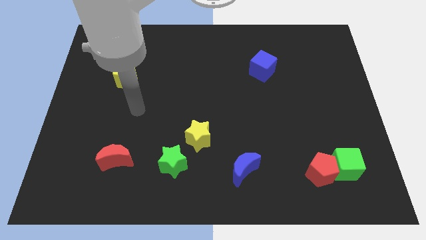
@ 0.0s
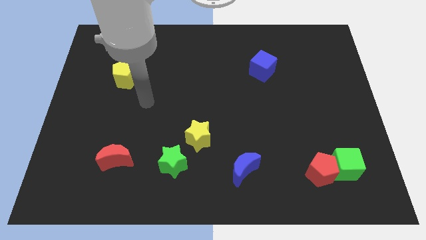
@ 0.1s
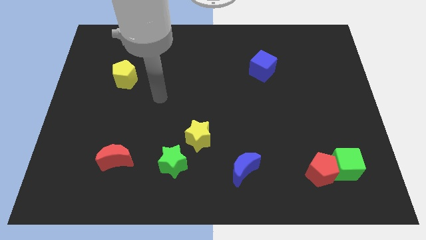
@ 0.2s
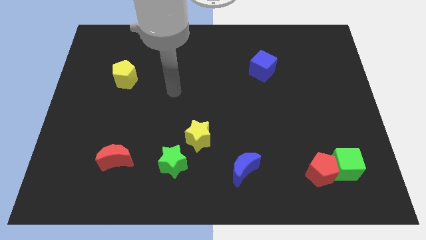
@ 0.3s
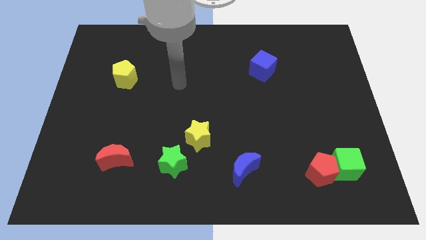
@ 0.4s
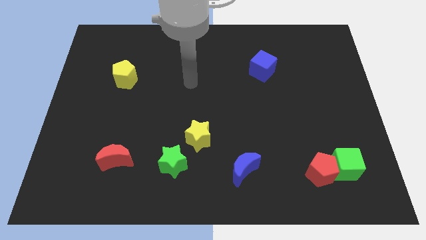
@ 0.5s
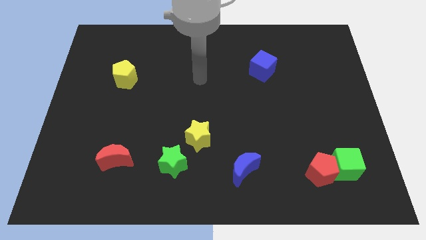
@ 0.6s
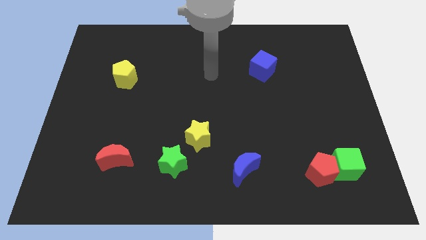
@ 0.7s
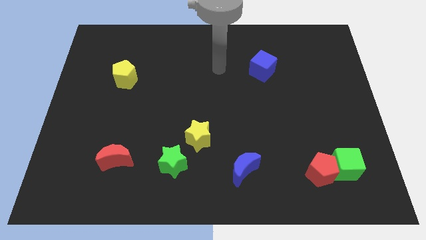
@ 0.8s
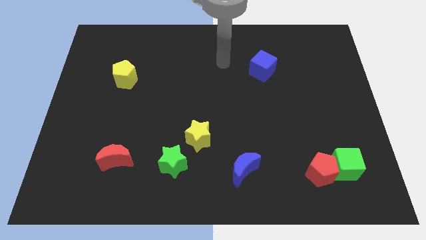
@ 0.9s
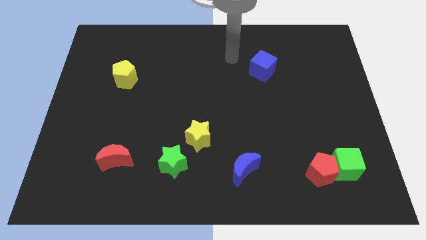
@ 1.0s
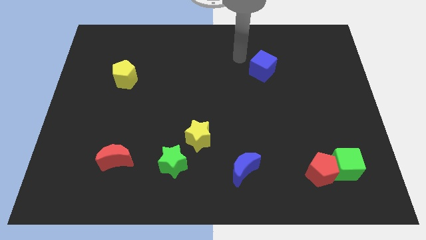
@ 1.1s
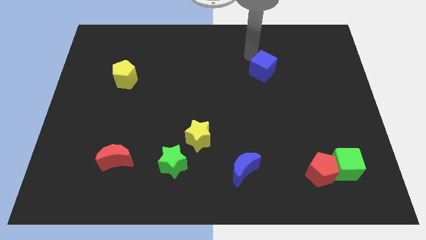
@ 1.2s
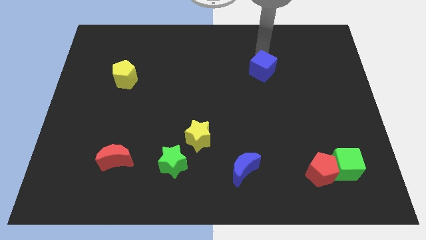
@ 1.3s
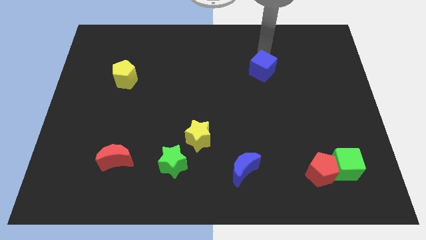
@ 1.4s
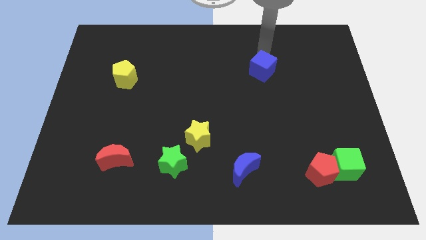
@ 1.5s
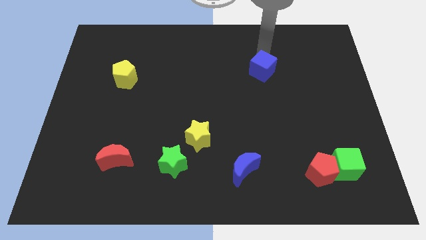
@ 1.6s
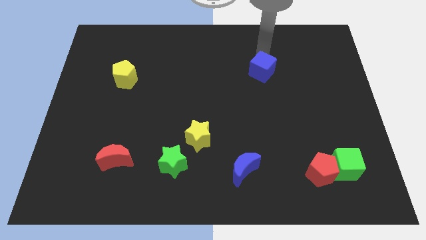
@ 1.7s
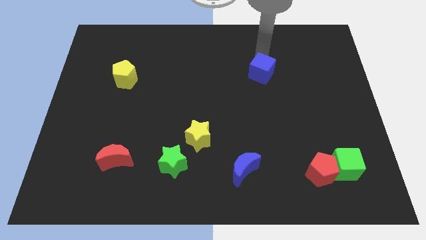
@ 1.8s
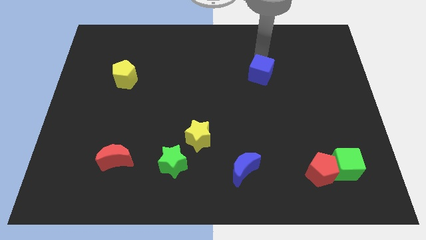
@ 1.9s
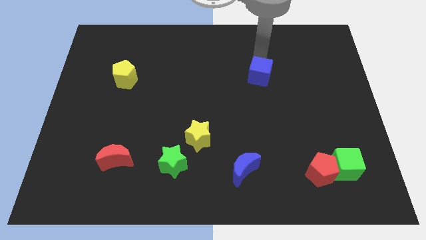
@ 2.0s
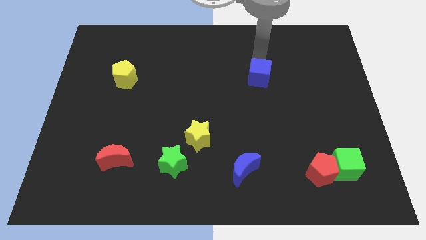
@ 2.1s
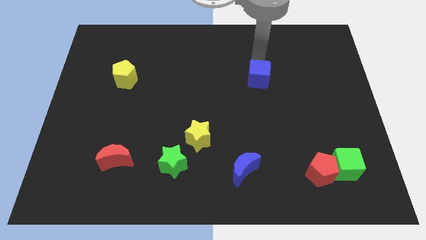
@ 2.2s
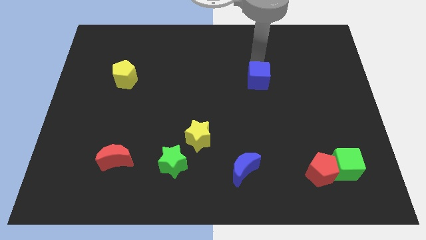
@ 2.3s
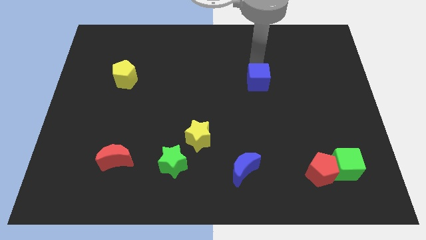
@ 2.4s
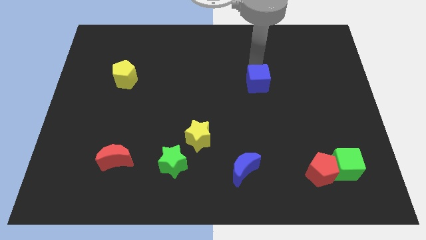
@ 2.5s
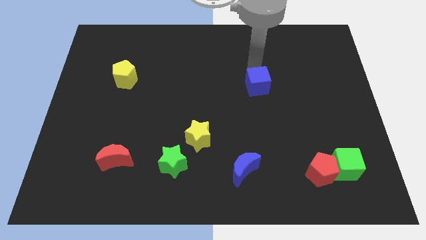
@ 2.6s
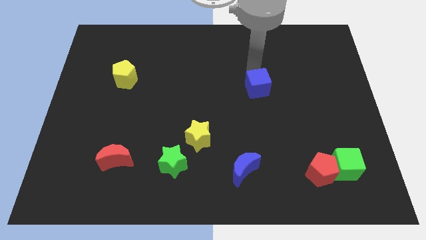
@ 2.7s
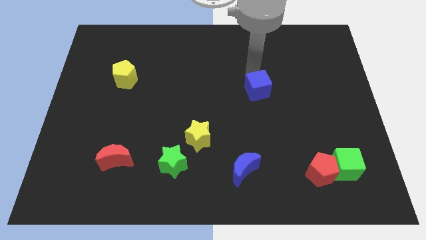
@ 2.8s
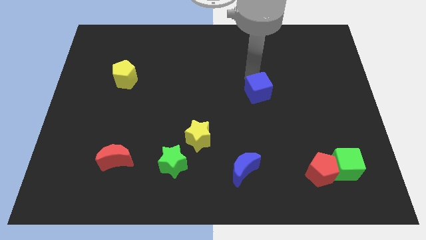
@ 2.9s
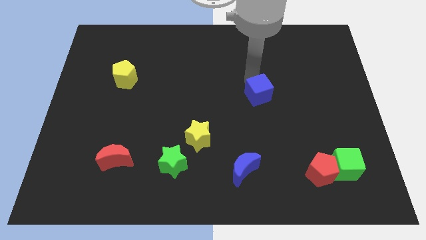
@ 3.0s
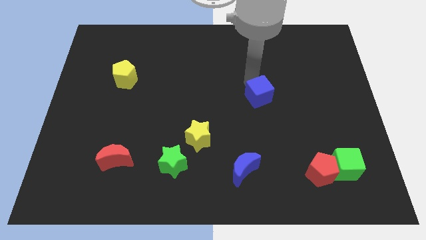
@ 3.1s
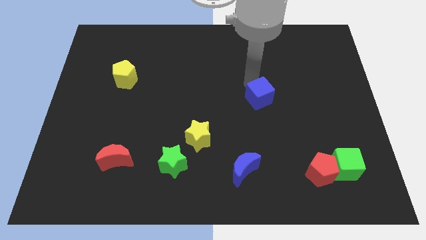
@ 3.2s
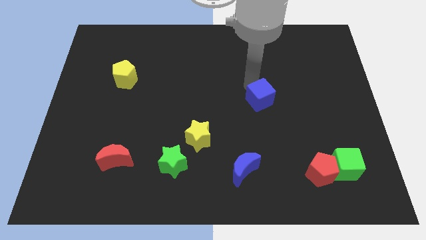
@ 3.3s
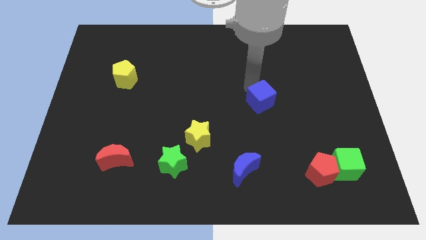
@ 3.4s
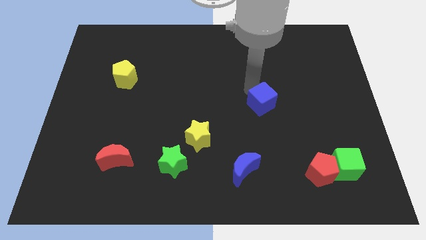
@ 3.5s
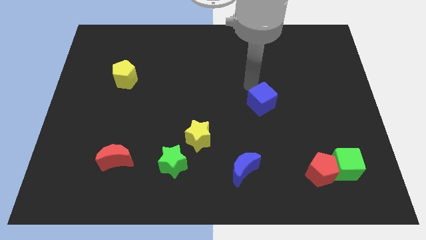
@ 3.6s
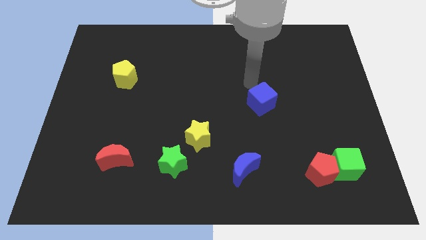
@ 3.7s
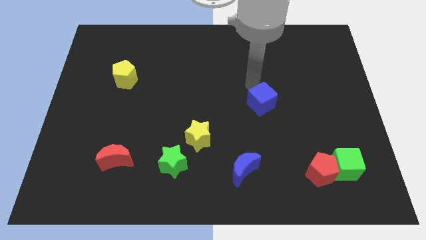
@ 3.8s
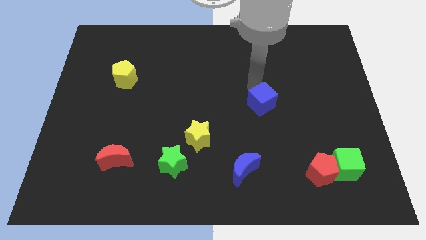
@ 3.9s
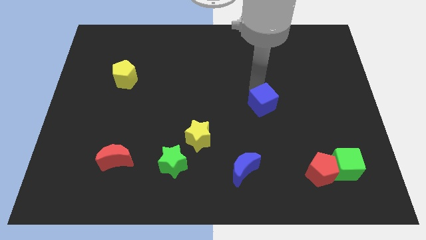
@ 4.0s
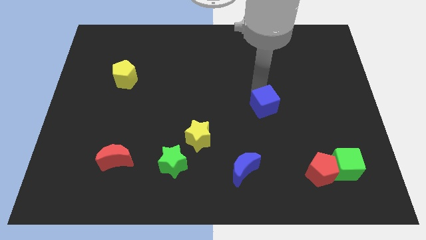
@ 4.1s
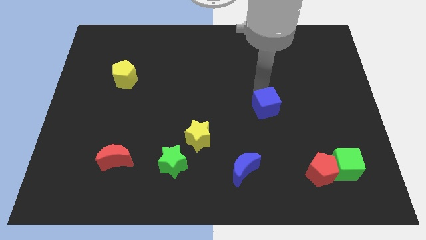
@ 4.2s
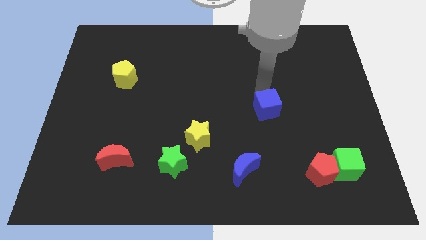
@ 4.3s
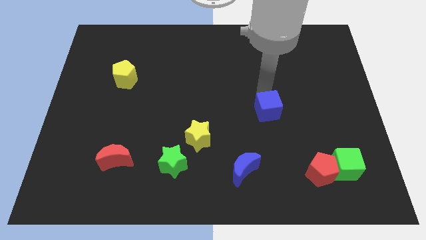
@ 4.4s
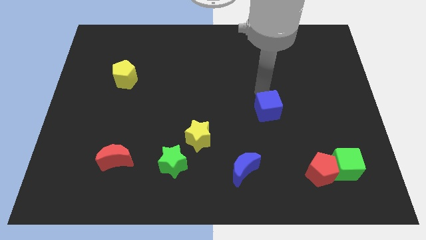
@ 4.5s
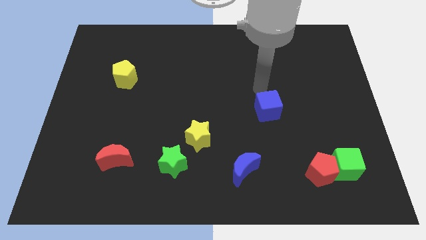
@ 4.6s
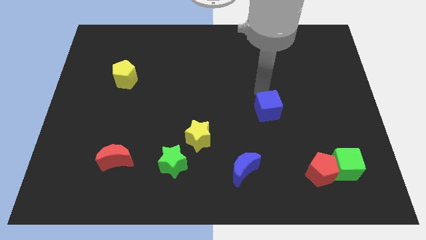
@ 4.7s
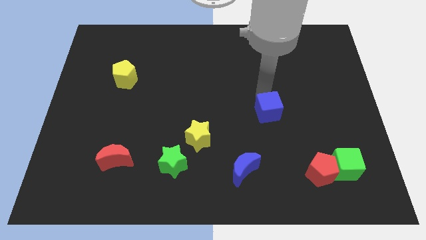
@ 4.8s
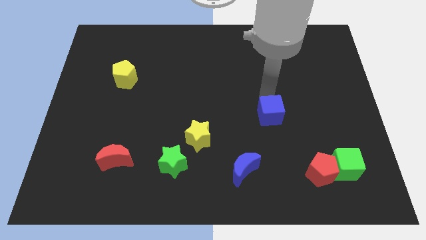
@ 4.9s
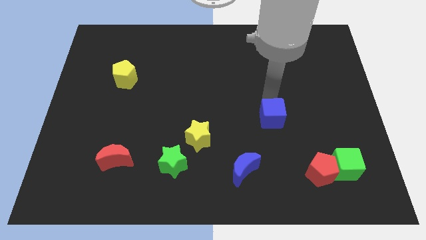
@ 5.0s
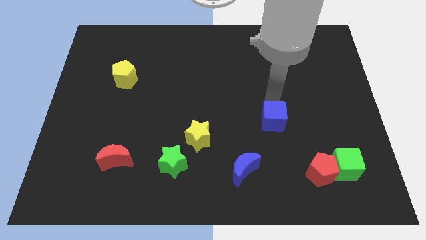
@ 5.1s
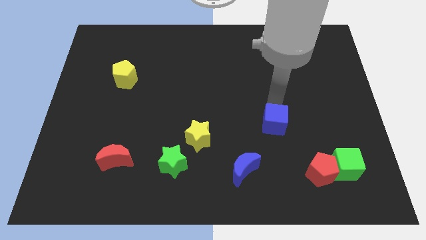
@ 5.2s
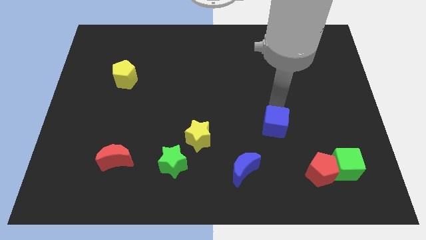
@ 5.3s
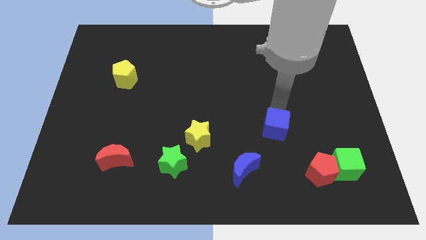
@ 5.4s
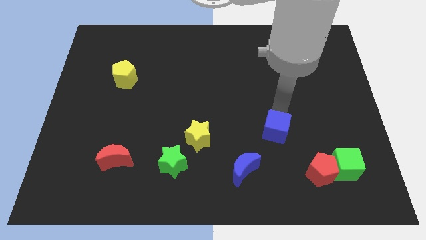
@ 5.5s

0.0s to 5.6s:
put the blue cube diagonally up and to the right of the blue moon

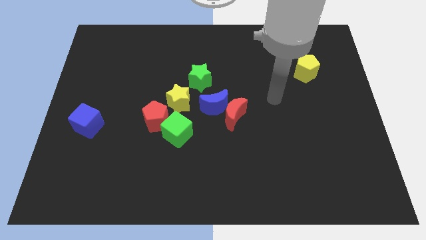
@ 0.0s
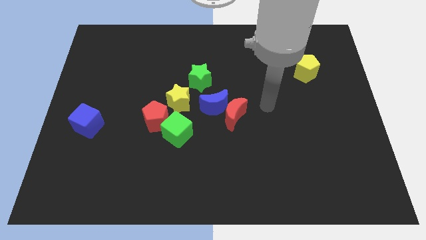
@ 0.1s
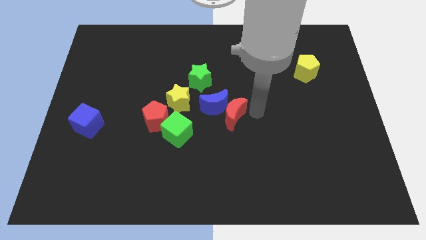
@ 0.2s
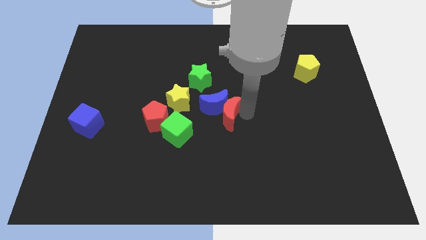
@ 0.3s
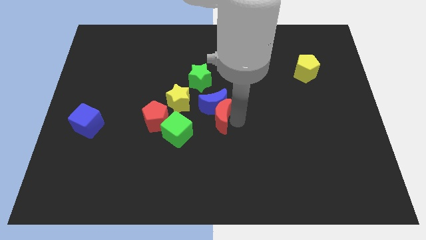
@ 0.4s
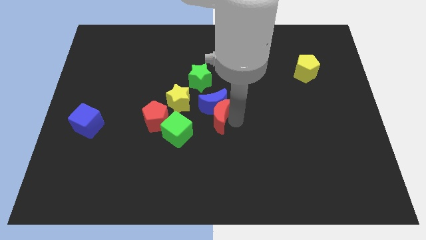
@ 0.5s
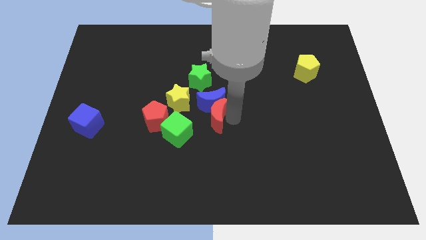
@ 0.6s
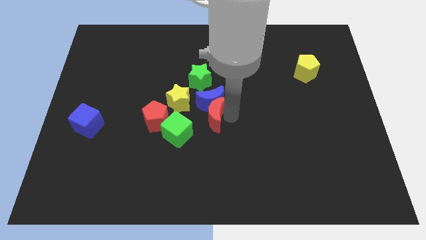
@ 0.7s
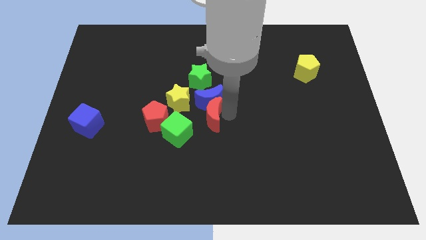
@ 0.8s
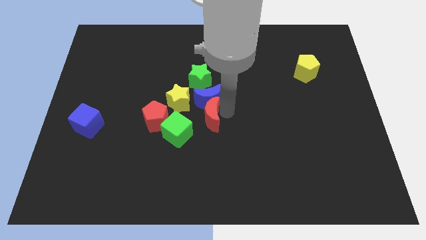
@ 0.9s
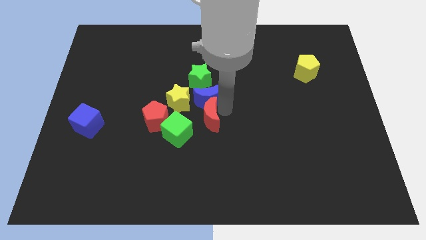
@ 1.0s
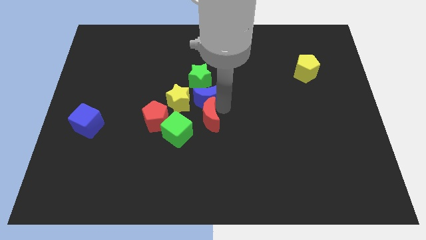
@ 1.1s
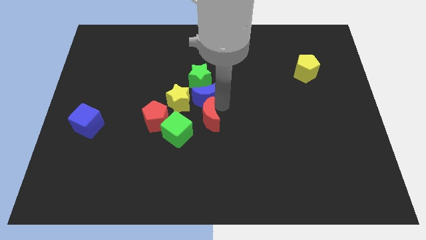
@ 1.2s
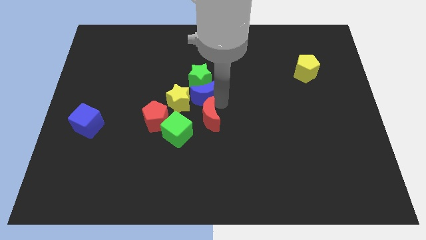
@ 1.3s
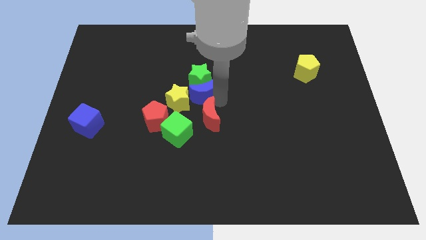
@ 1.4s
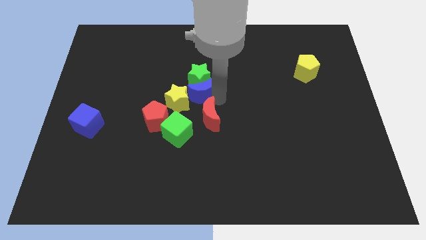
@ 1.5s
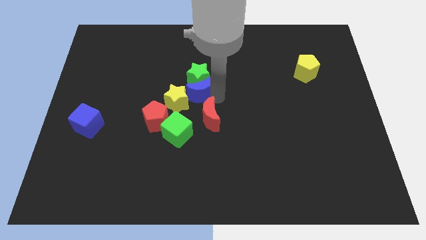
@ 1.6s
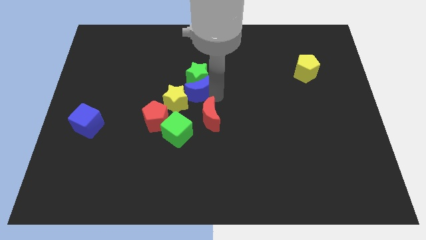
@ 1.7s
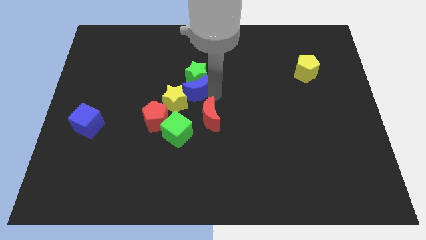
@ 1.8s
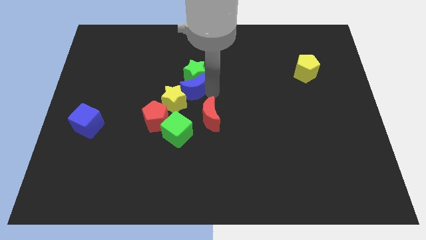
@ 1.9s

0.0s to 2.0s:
slide the blue moon above the yellow star
